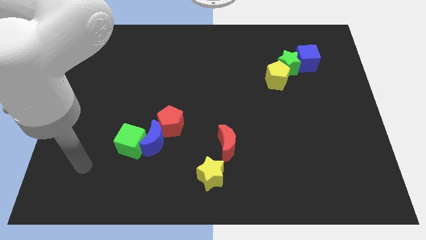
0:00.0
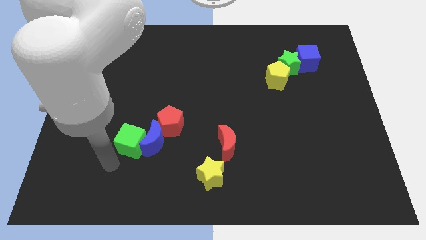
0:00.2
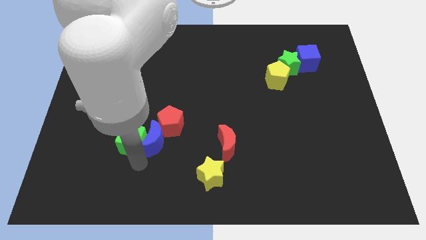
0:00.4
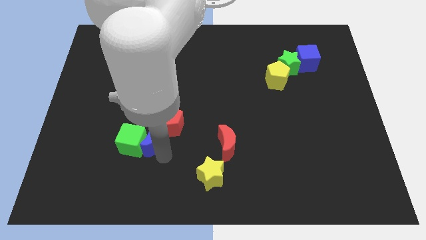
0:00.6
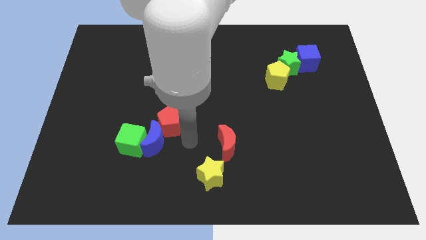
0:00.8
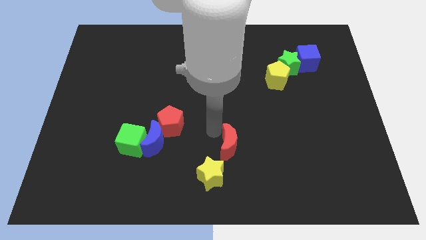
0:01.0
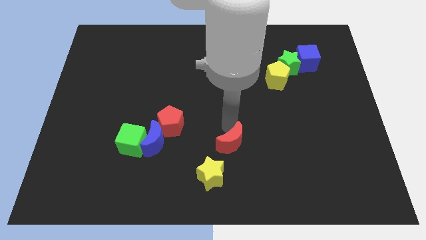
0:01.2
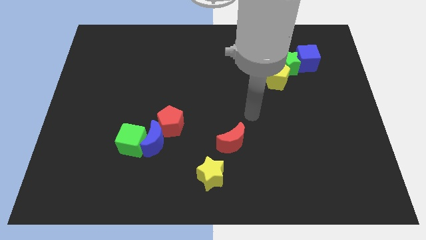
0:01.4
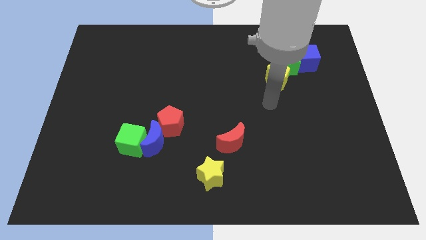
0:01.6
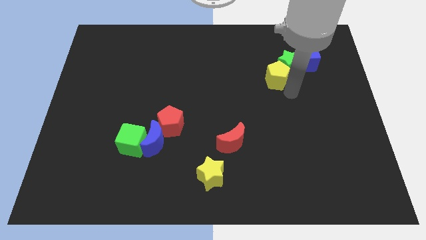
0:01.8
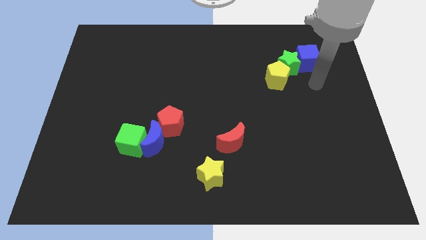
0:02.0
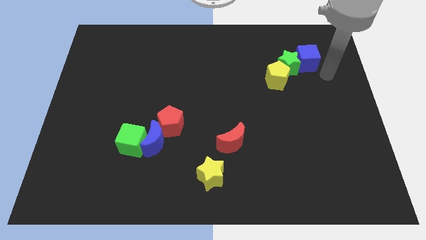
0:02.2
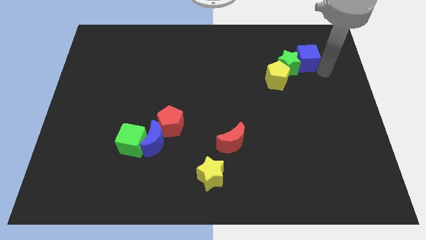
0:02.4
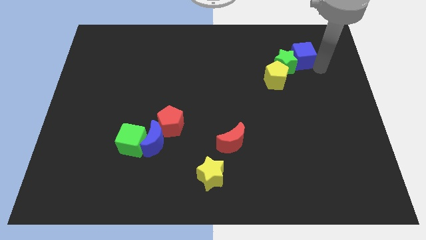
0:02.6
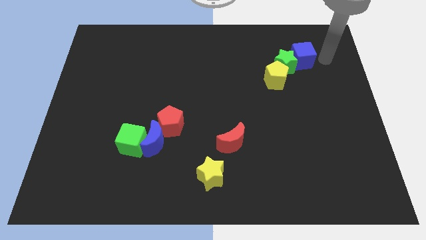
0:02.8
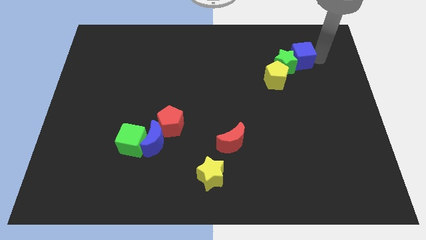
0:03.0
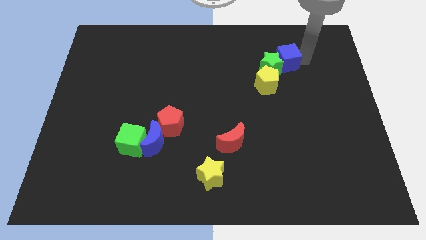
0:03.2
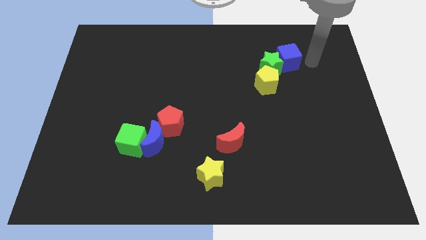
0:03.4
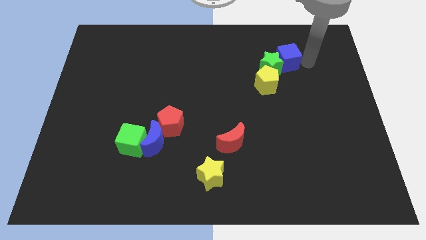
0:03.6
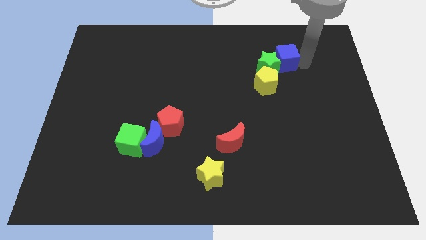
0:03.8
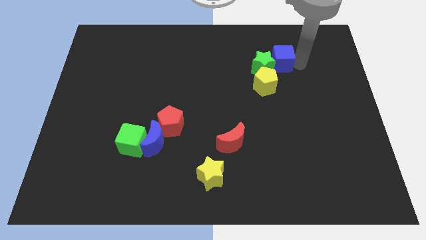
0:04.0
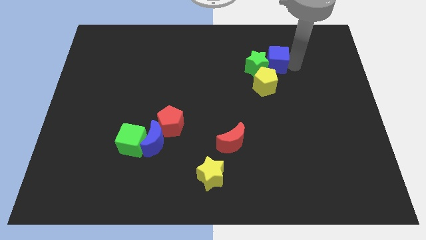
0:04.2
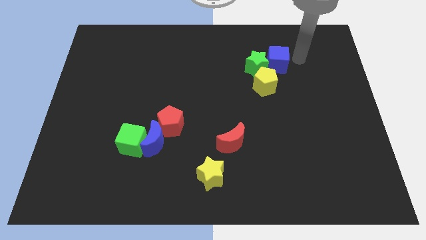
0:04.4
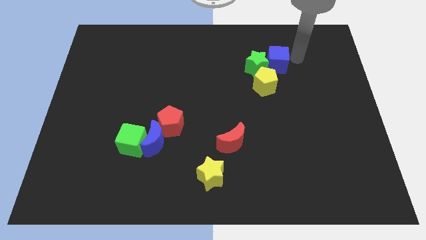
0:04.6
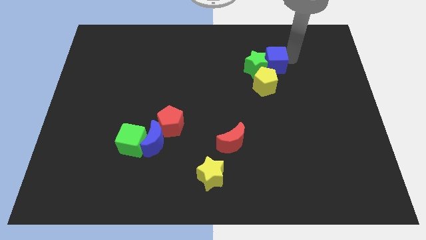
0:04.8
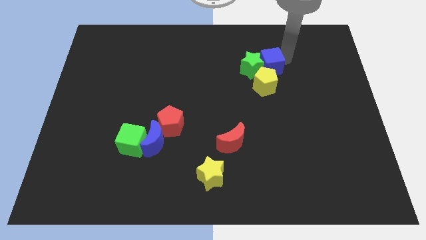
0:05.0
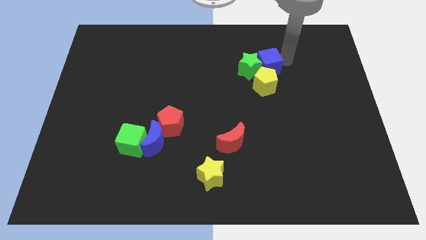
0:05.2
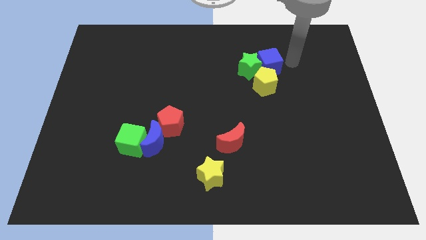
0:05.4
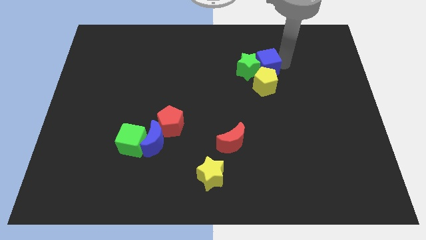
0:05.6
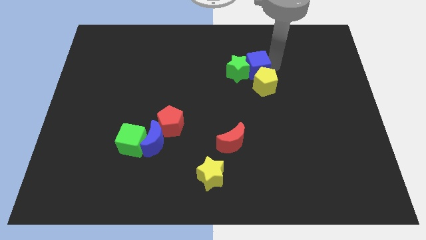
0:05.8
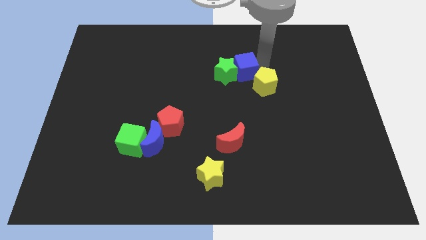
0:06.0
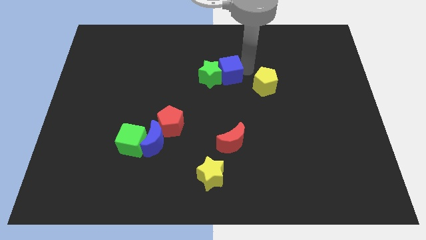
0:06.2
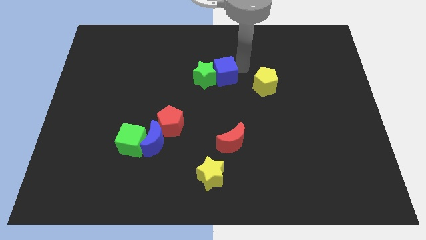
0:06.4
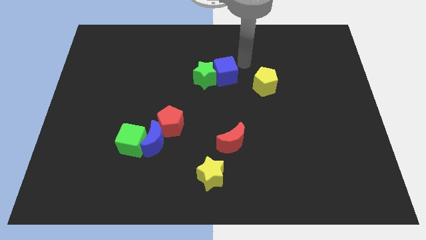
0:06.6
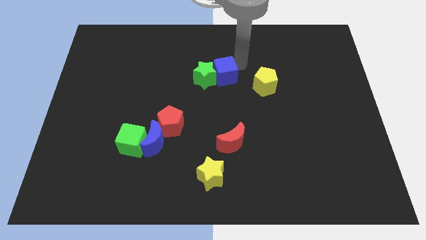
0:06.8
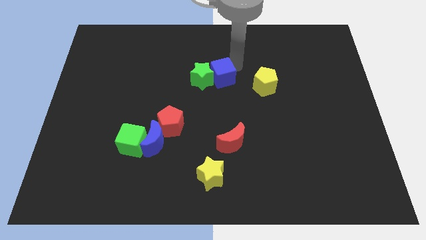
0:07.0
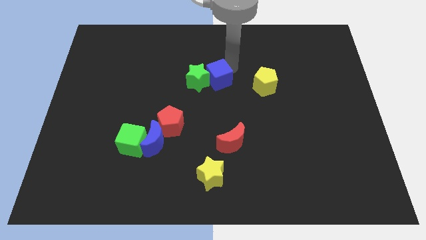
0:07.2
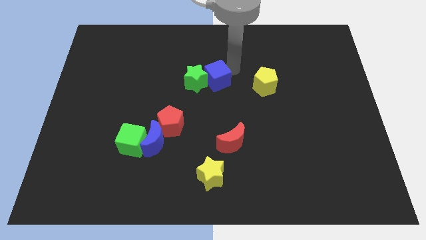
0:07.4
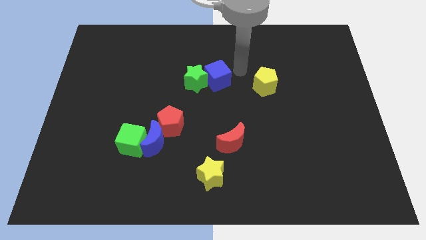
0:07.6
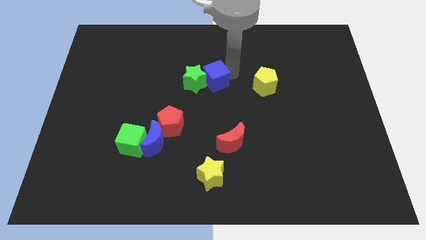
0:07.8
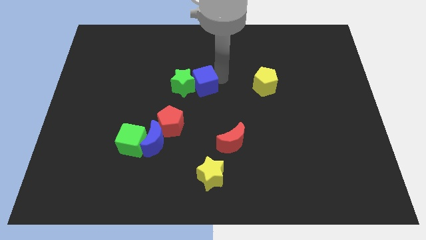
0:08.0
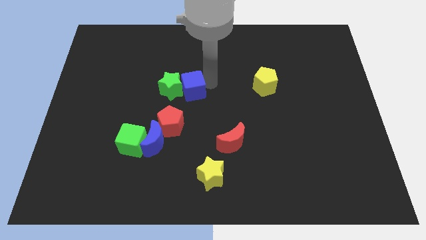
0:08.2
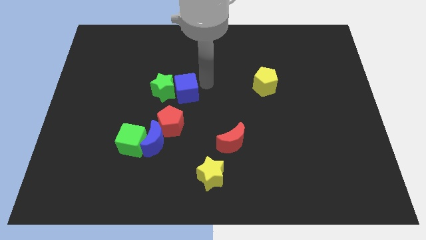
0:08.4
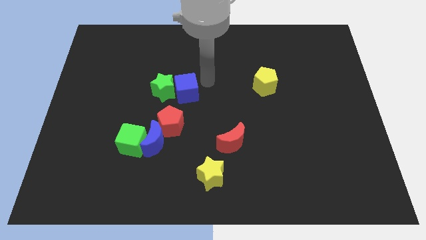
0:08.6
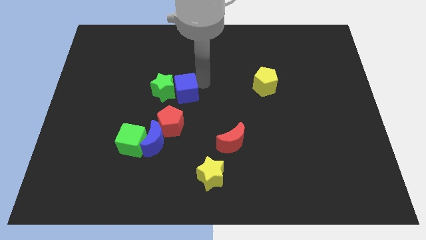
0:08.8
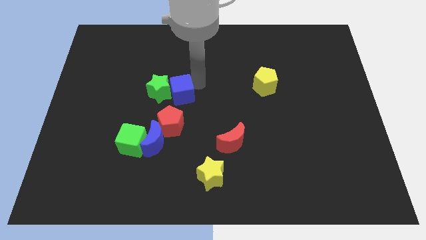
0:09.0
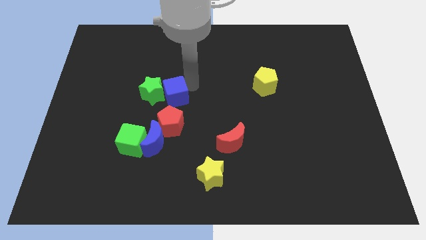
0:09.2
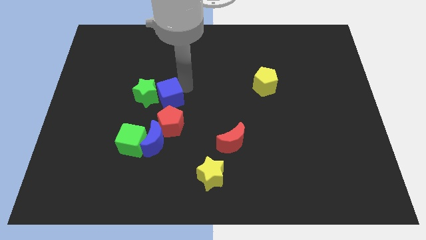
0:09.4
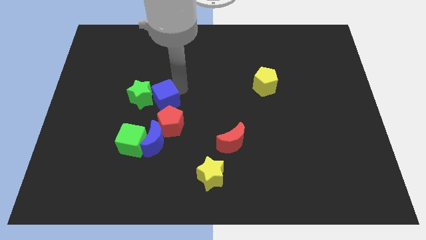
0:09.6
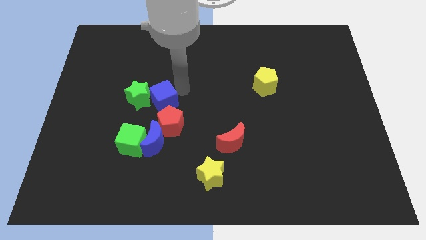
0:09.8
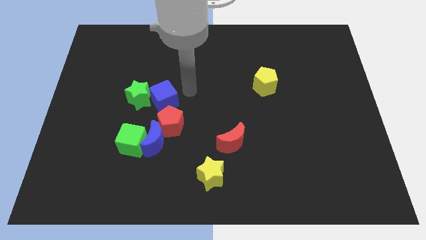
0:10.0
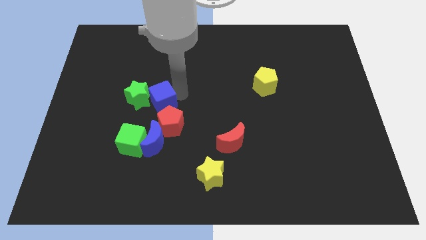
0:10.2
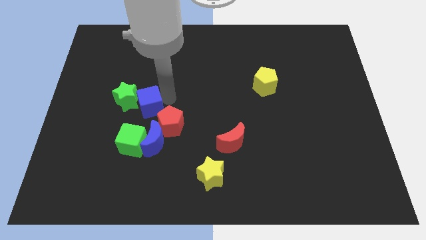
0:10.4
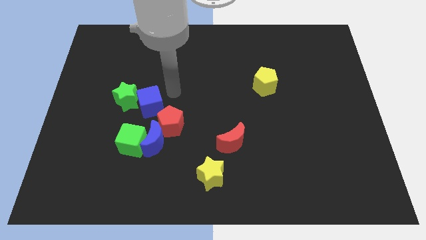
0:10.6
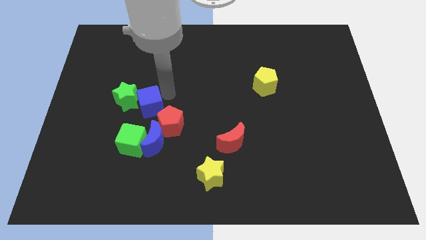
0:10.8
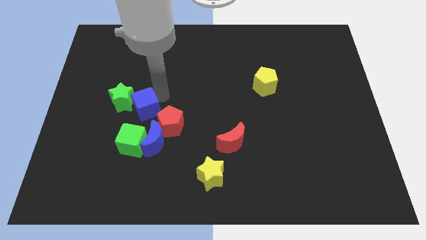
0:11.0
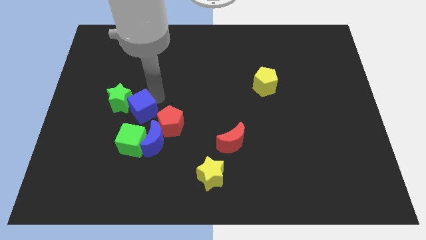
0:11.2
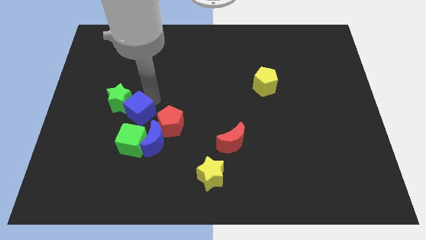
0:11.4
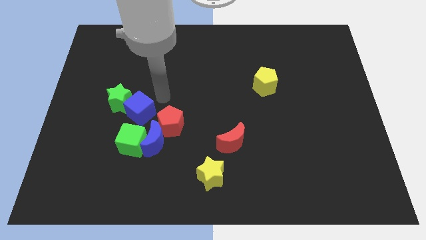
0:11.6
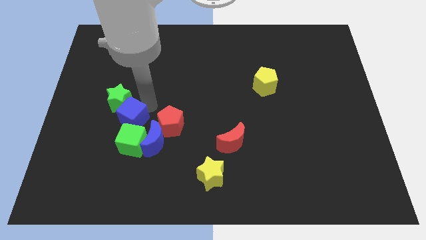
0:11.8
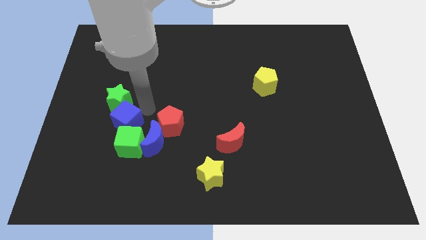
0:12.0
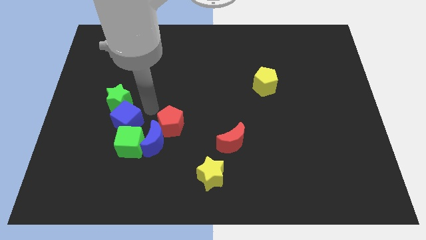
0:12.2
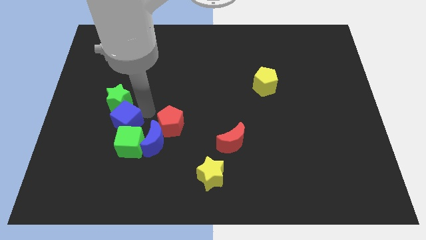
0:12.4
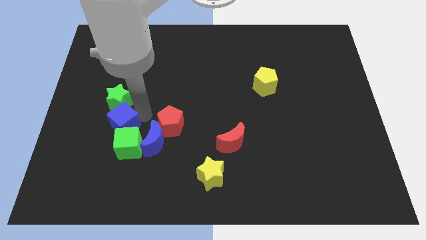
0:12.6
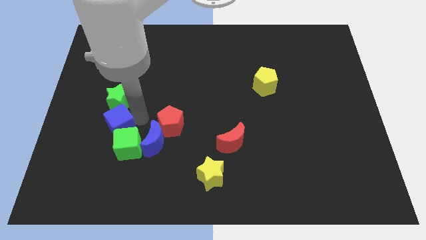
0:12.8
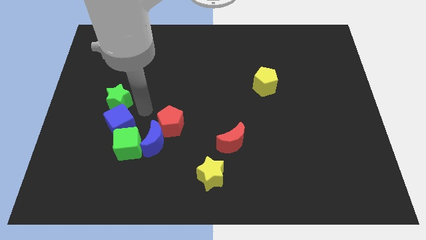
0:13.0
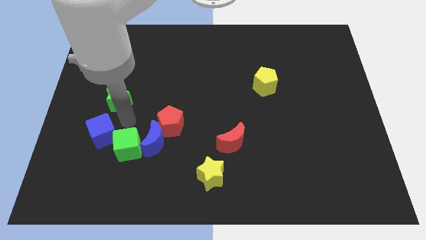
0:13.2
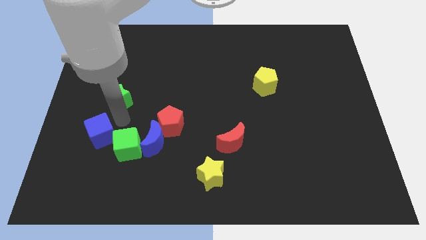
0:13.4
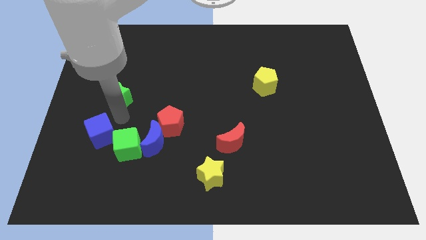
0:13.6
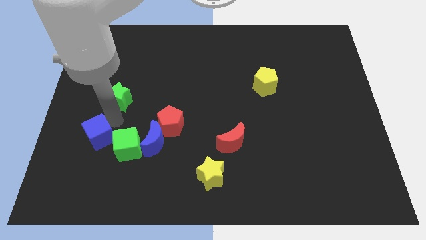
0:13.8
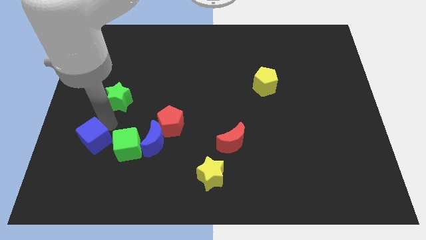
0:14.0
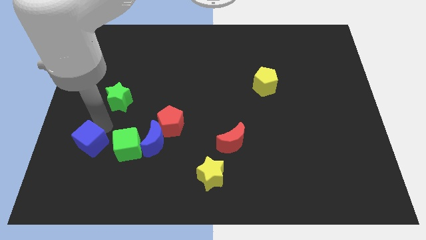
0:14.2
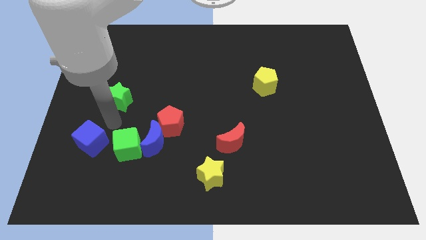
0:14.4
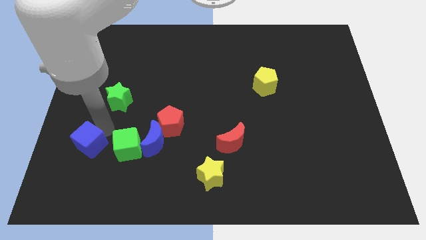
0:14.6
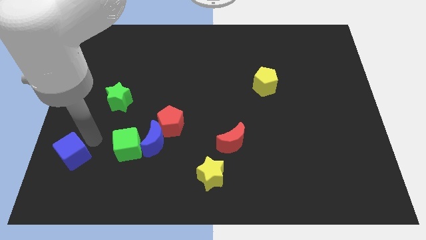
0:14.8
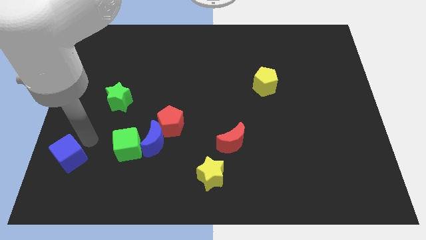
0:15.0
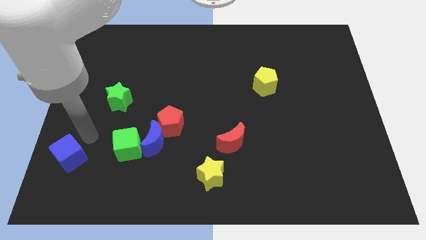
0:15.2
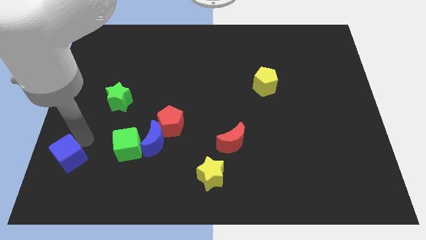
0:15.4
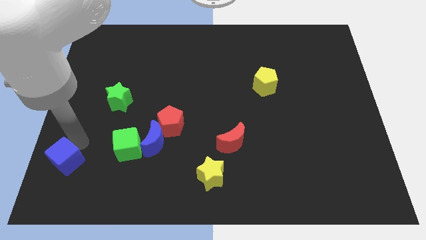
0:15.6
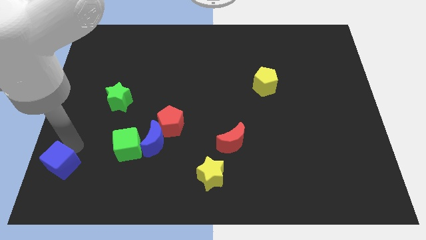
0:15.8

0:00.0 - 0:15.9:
put the blue cube to the bottom left
